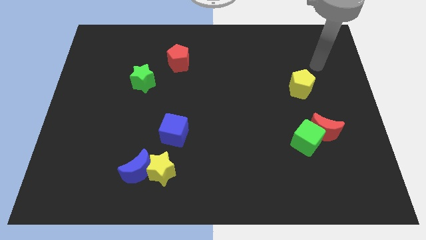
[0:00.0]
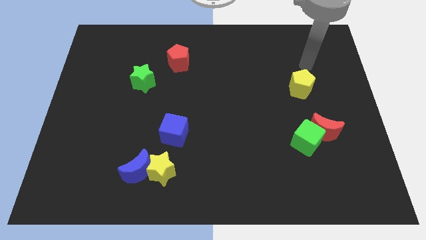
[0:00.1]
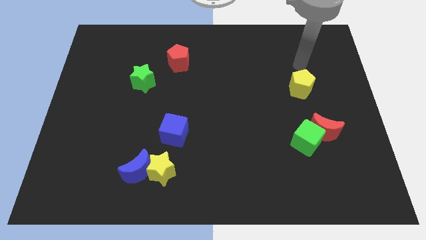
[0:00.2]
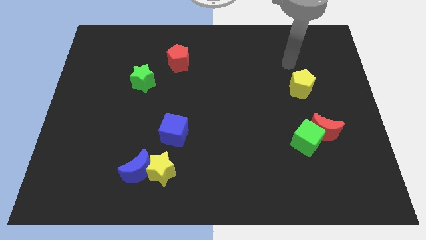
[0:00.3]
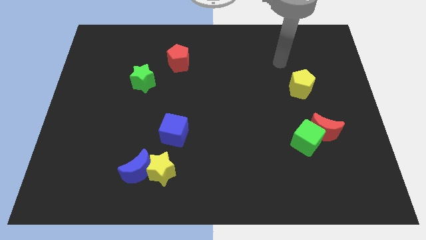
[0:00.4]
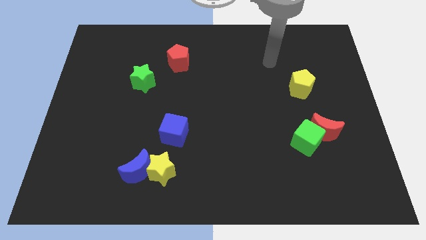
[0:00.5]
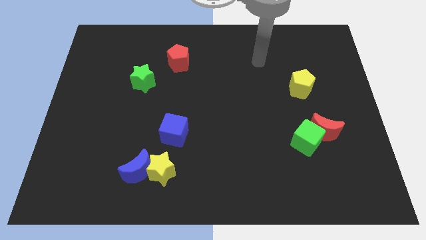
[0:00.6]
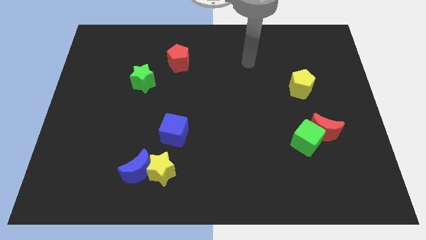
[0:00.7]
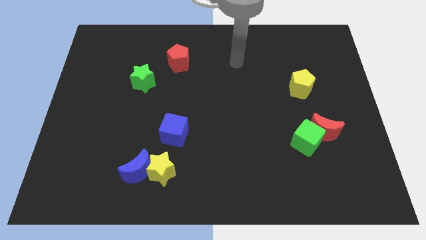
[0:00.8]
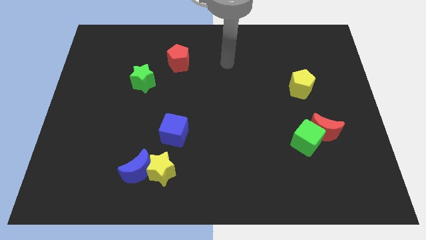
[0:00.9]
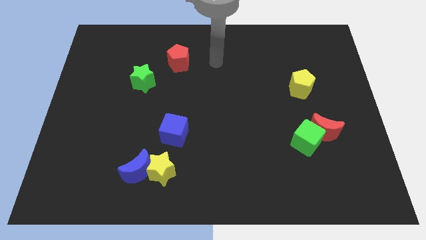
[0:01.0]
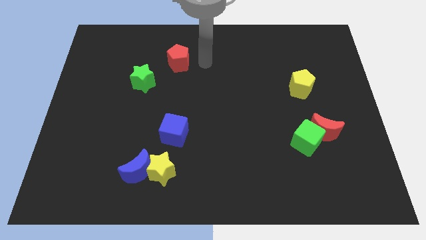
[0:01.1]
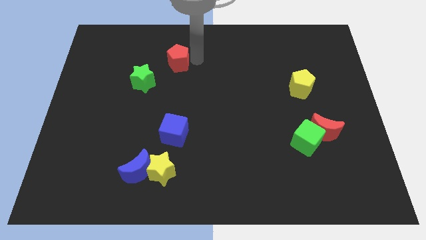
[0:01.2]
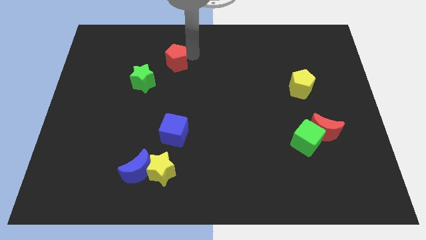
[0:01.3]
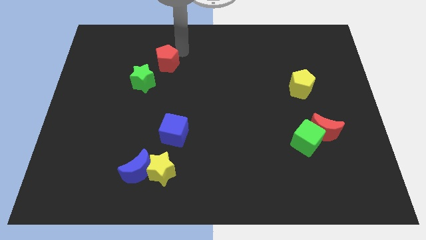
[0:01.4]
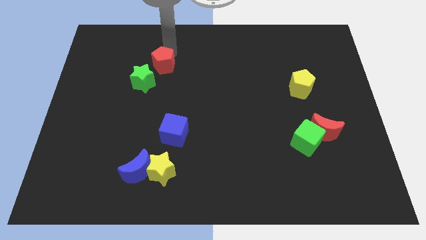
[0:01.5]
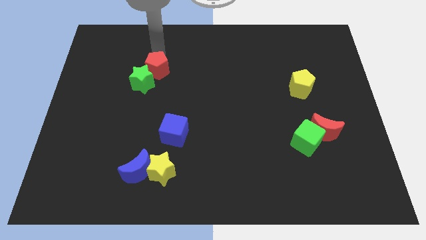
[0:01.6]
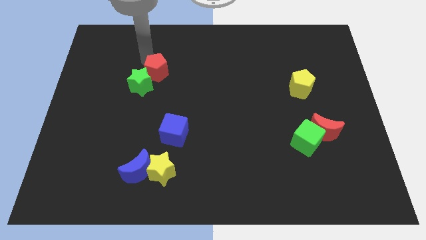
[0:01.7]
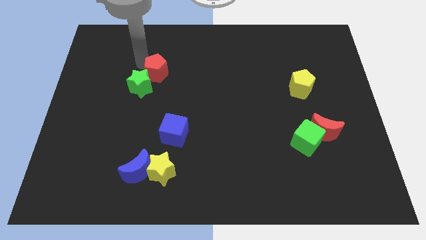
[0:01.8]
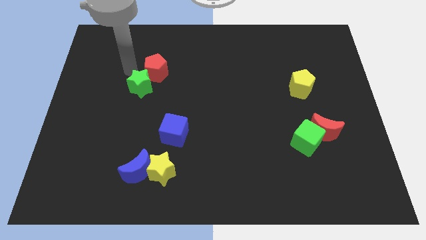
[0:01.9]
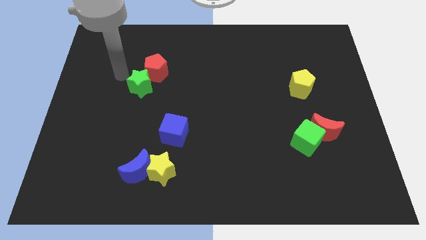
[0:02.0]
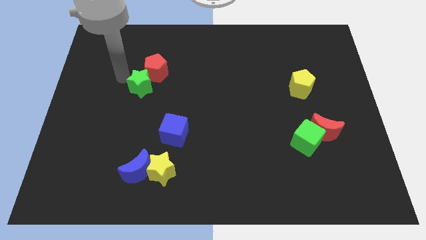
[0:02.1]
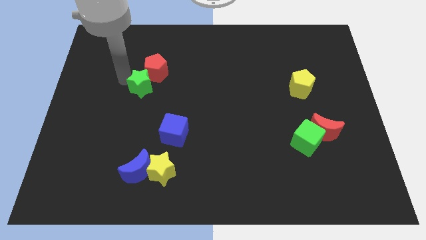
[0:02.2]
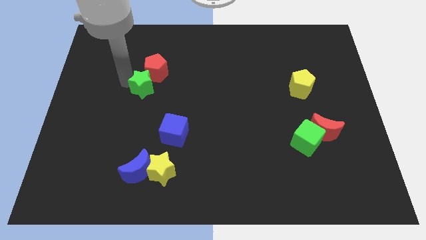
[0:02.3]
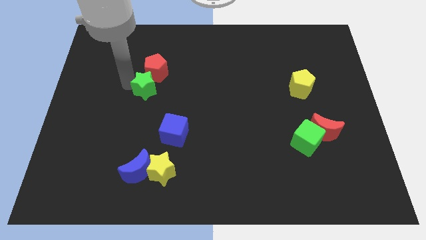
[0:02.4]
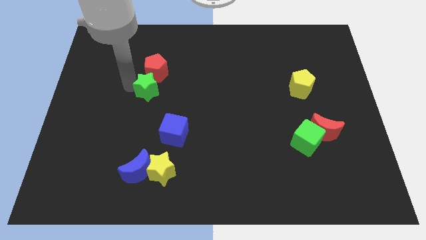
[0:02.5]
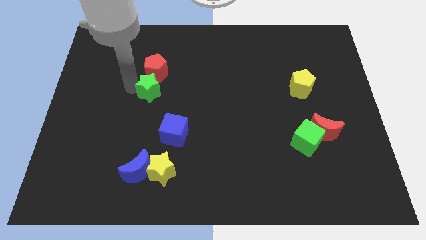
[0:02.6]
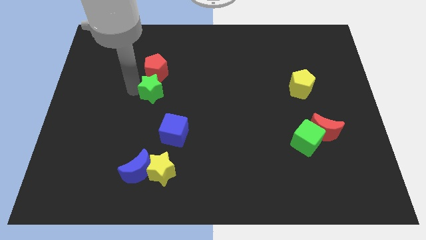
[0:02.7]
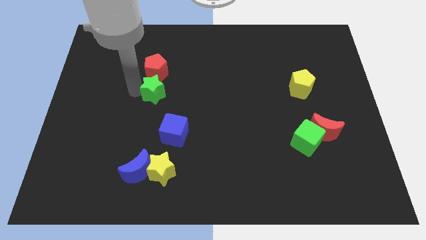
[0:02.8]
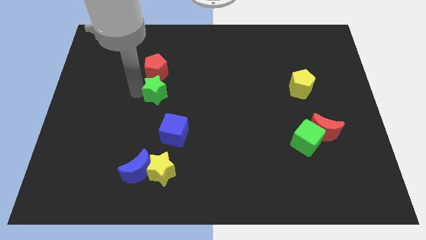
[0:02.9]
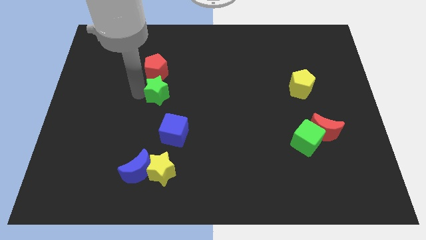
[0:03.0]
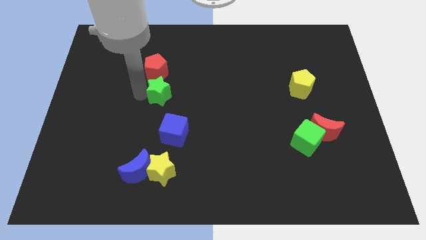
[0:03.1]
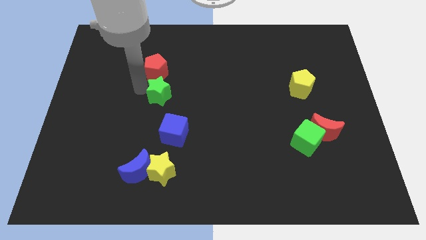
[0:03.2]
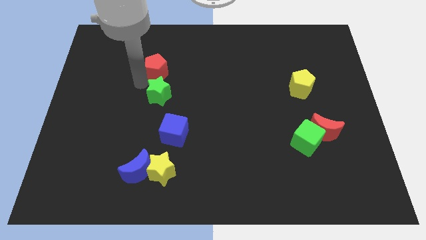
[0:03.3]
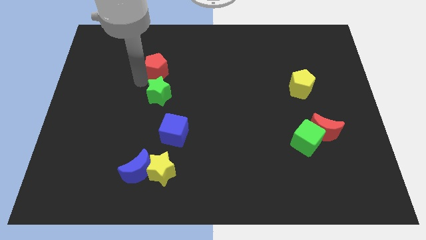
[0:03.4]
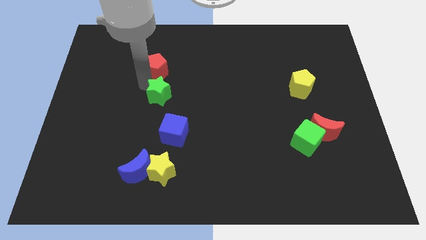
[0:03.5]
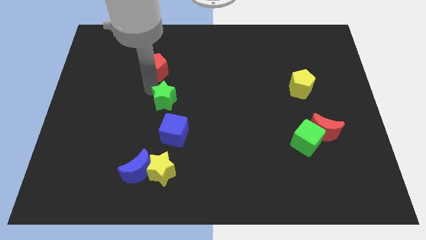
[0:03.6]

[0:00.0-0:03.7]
move the green star downwards and right a little bit

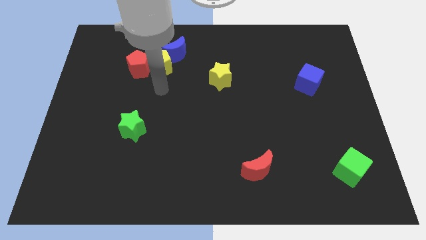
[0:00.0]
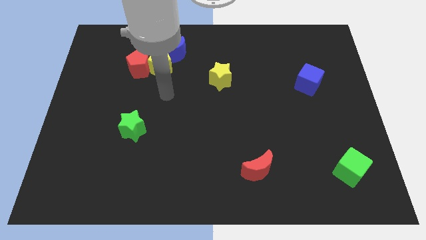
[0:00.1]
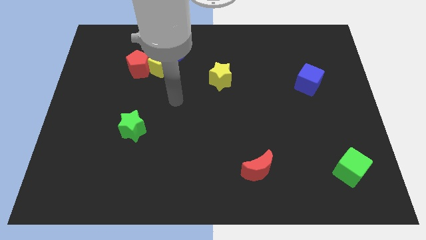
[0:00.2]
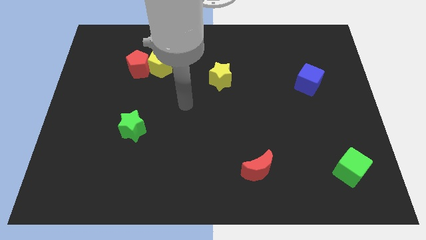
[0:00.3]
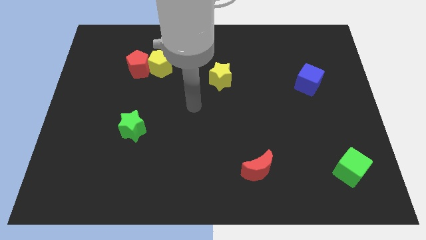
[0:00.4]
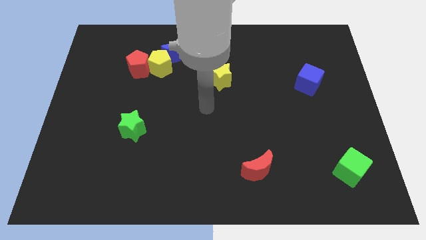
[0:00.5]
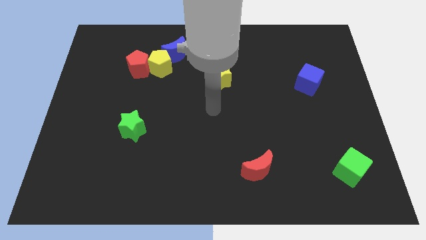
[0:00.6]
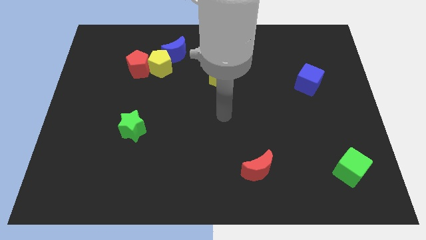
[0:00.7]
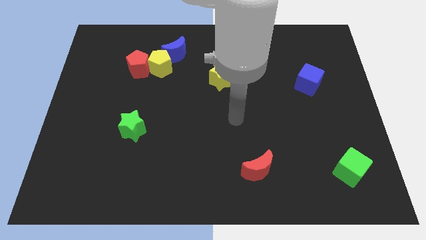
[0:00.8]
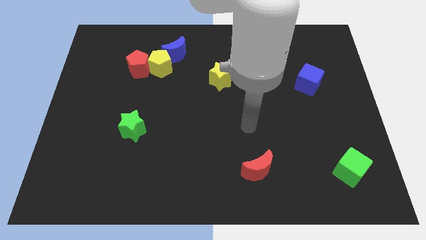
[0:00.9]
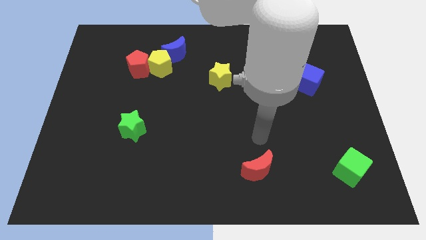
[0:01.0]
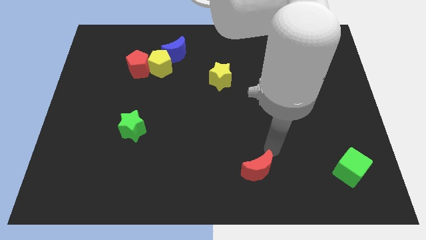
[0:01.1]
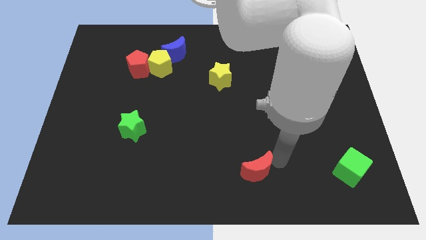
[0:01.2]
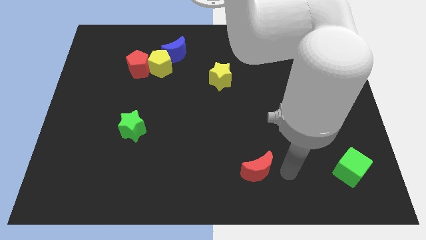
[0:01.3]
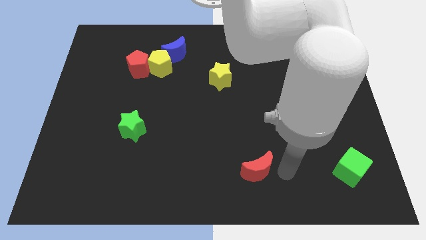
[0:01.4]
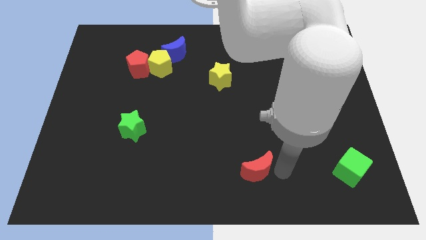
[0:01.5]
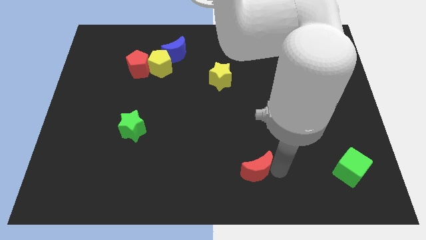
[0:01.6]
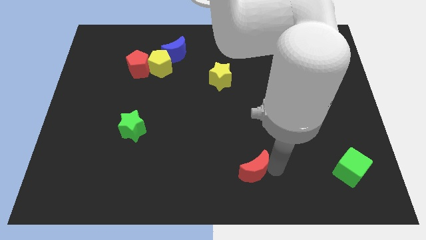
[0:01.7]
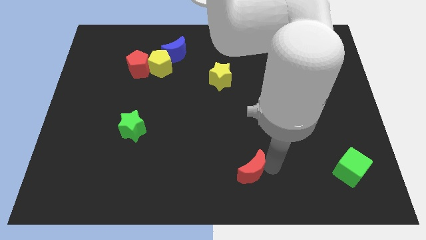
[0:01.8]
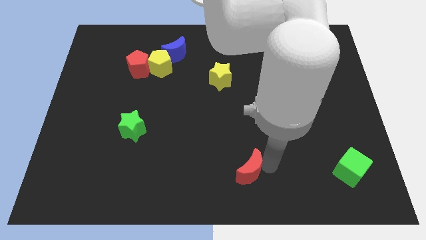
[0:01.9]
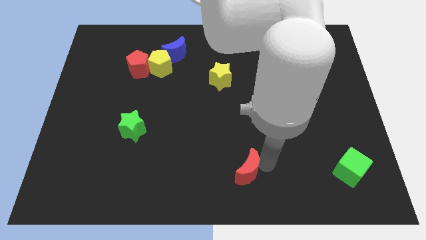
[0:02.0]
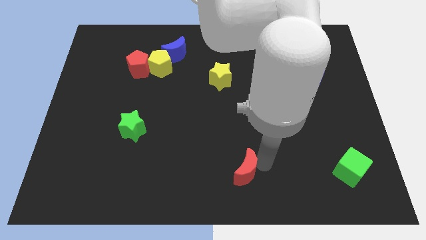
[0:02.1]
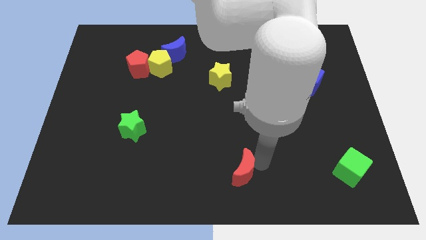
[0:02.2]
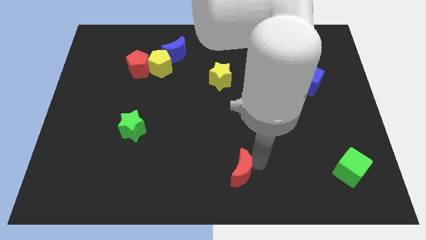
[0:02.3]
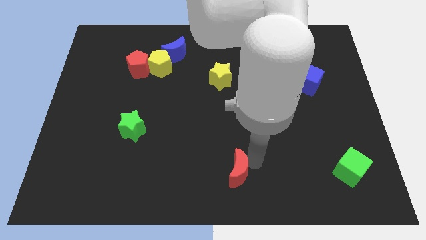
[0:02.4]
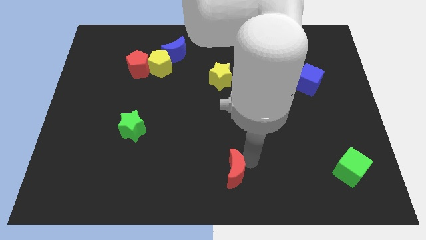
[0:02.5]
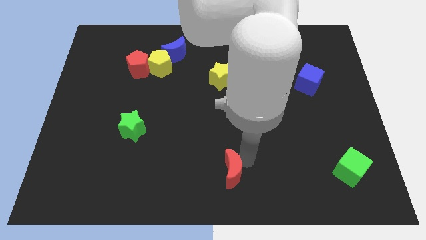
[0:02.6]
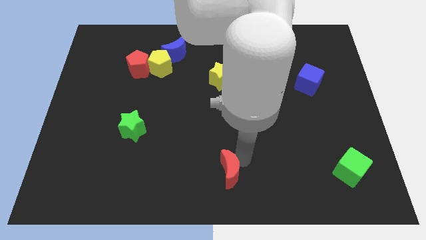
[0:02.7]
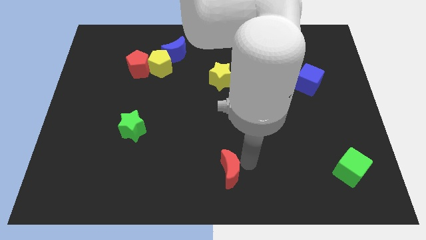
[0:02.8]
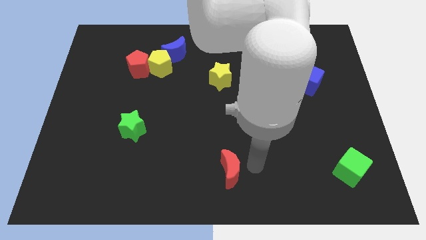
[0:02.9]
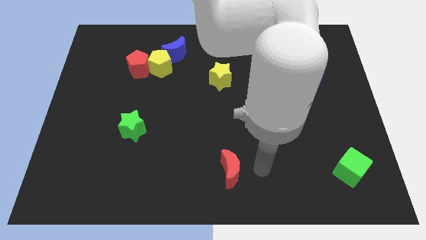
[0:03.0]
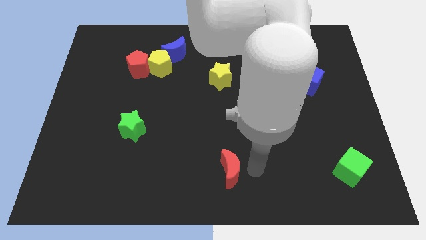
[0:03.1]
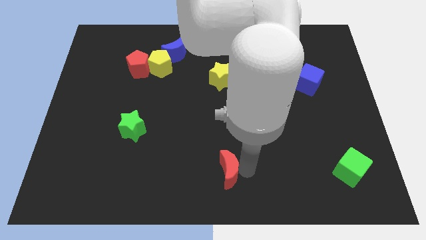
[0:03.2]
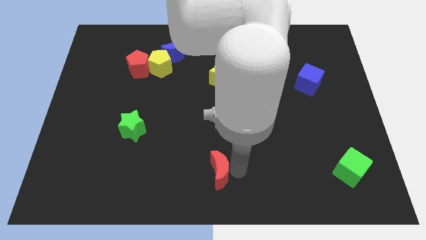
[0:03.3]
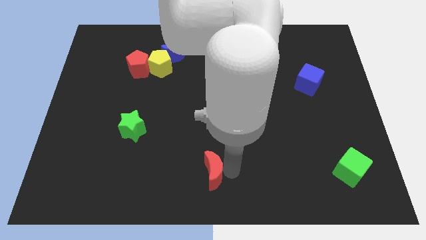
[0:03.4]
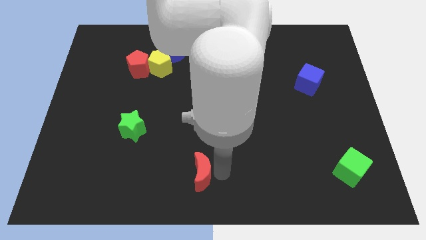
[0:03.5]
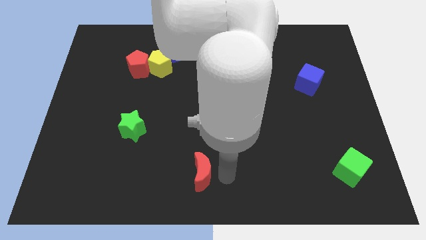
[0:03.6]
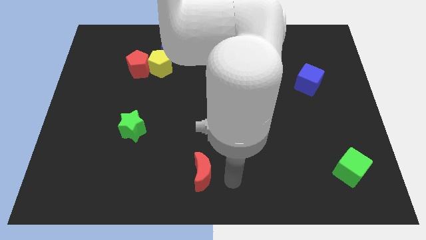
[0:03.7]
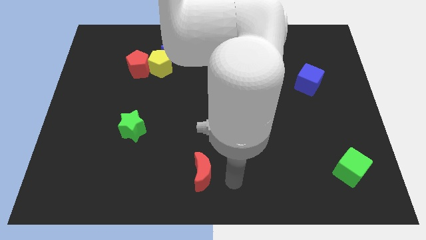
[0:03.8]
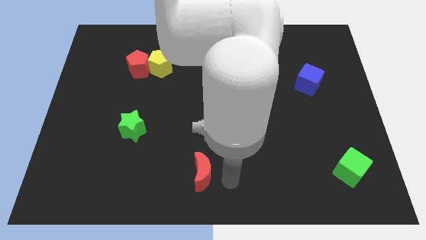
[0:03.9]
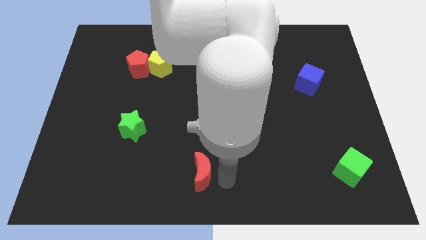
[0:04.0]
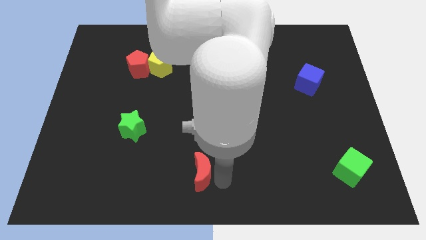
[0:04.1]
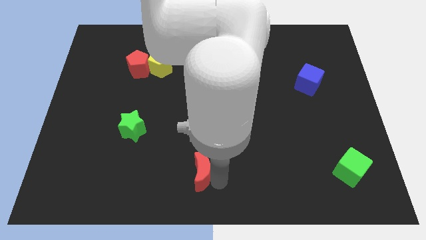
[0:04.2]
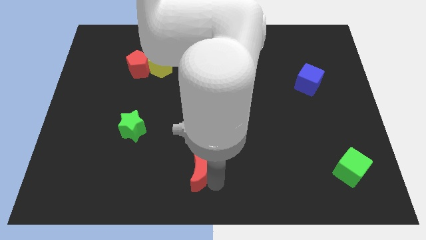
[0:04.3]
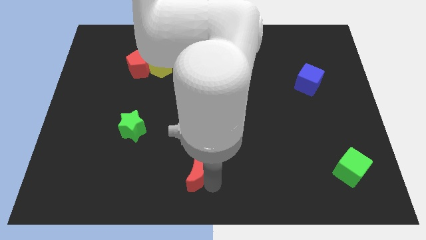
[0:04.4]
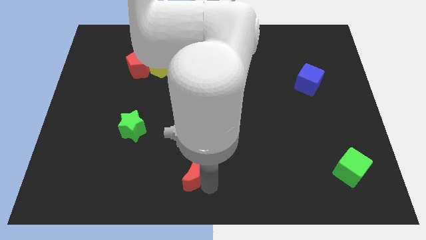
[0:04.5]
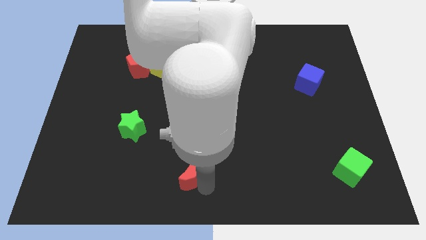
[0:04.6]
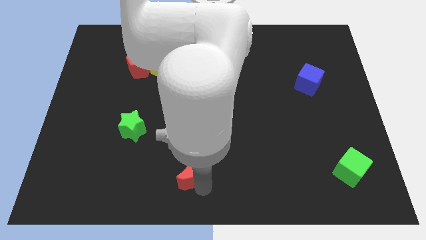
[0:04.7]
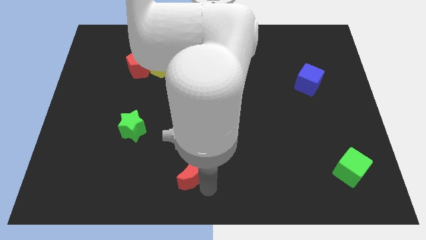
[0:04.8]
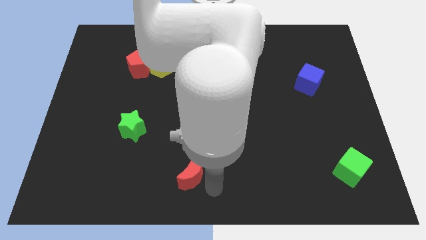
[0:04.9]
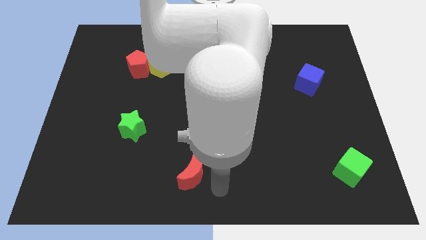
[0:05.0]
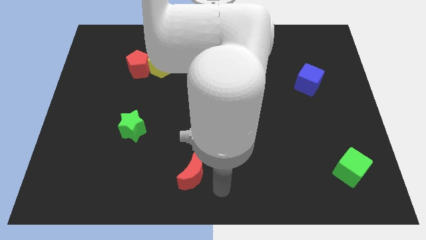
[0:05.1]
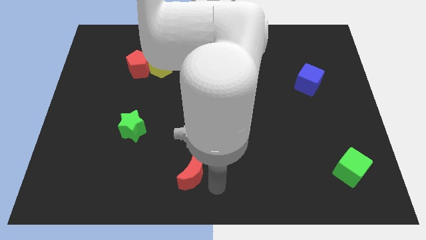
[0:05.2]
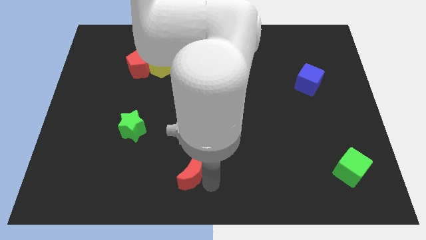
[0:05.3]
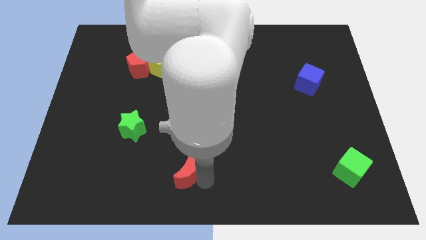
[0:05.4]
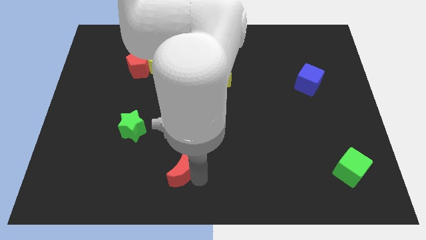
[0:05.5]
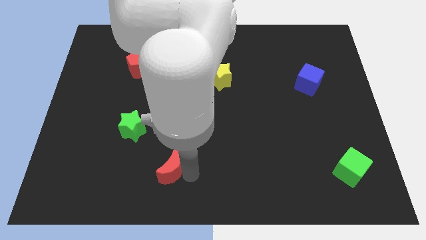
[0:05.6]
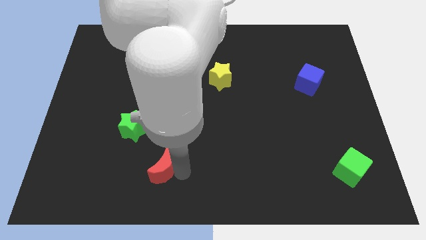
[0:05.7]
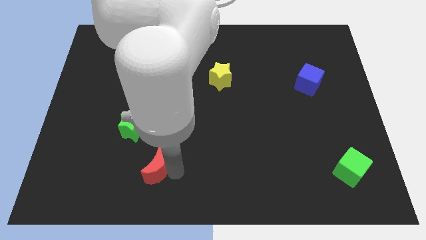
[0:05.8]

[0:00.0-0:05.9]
move the red moon left
